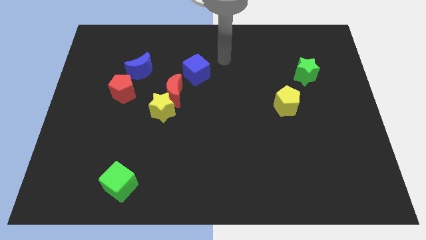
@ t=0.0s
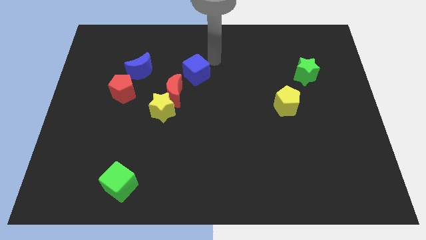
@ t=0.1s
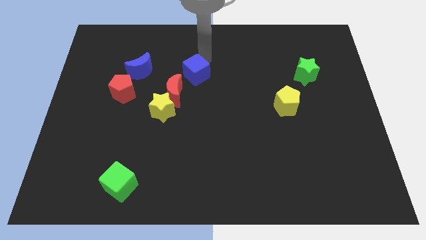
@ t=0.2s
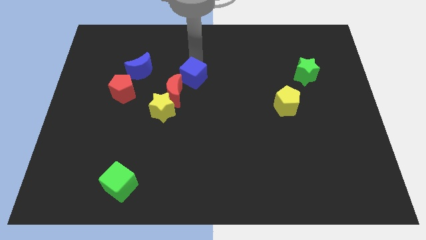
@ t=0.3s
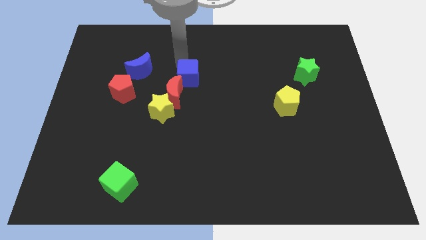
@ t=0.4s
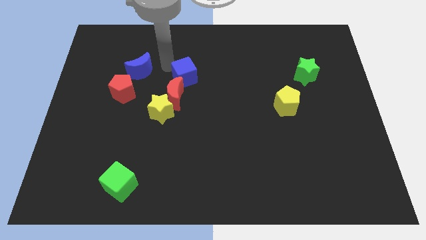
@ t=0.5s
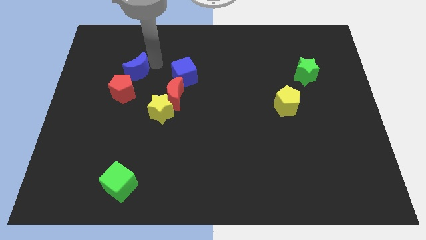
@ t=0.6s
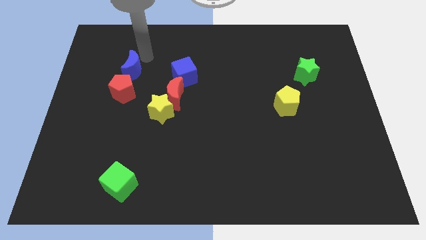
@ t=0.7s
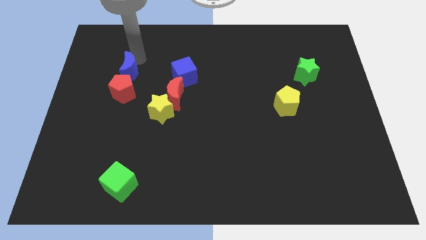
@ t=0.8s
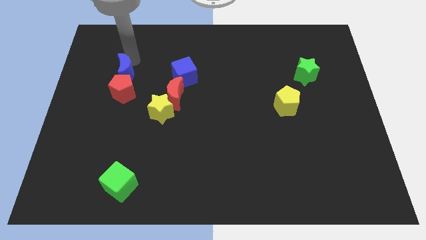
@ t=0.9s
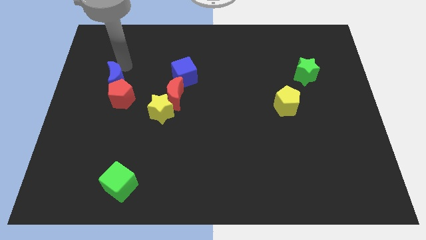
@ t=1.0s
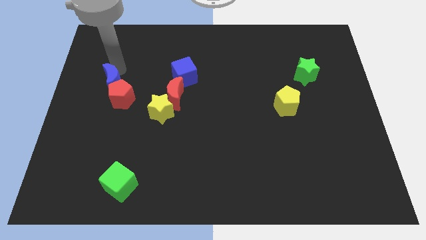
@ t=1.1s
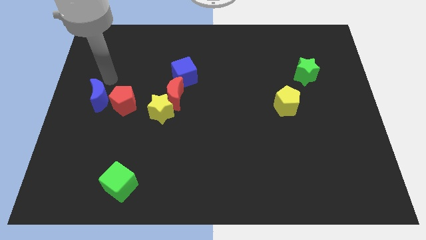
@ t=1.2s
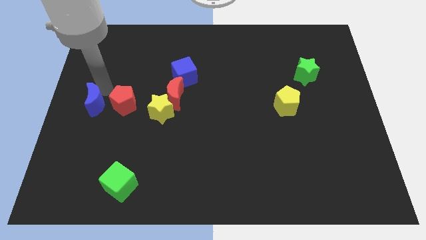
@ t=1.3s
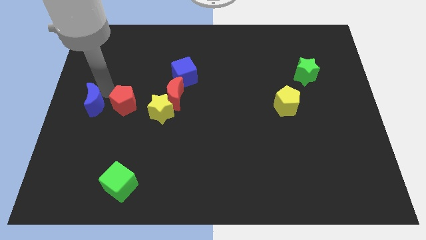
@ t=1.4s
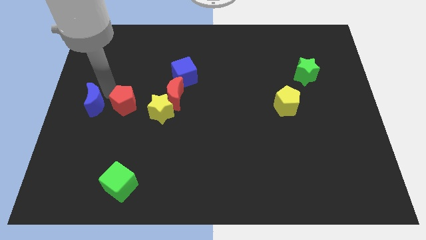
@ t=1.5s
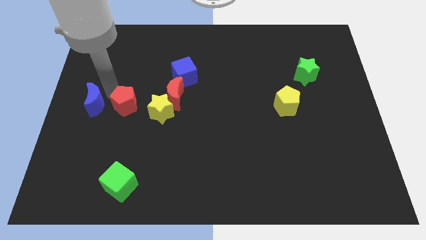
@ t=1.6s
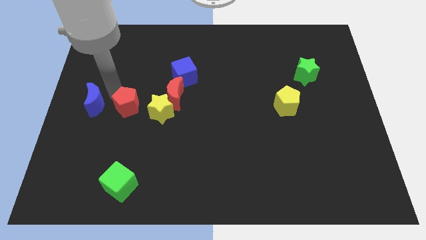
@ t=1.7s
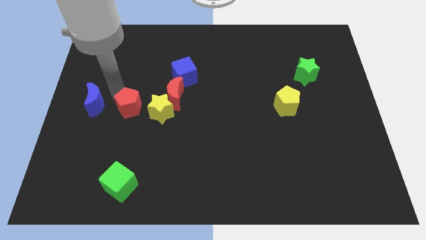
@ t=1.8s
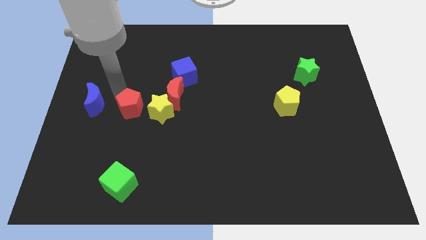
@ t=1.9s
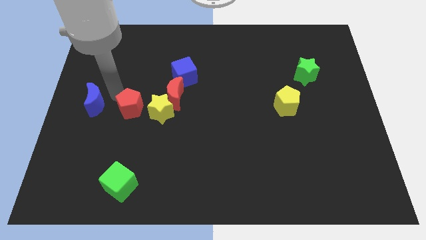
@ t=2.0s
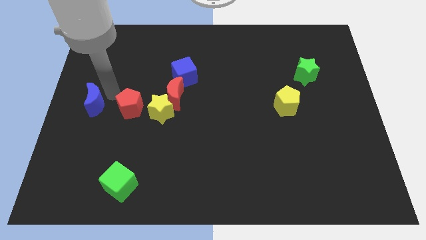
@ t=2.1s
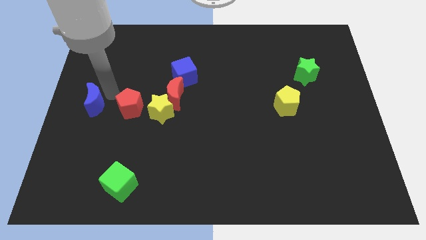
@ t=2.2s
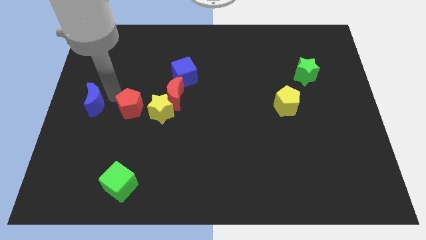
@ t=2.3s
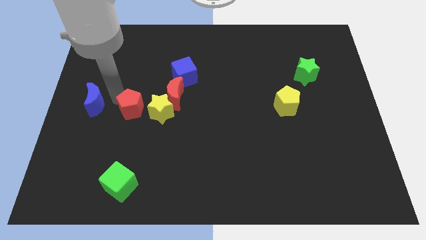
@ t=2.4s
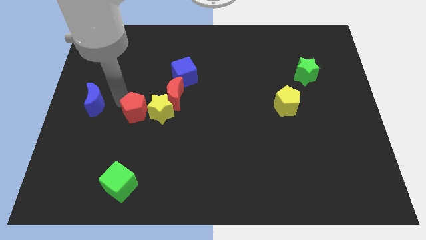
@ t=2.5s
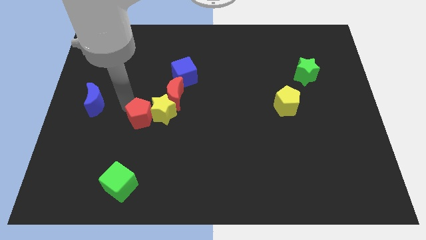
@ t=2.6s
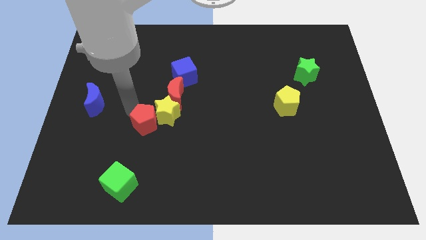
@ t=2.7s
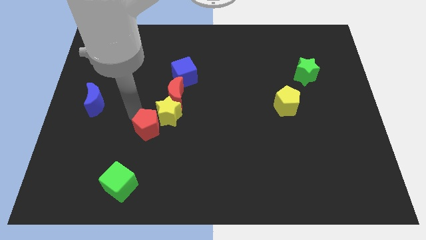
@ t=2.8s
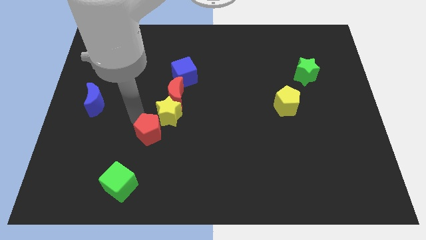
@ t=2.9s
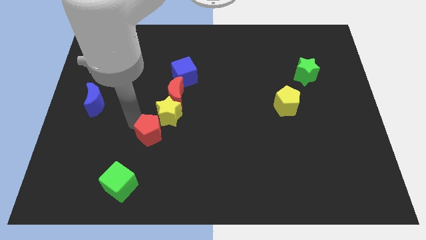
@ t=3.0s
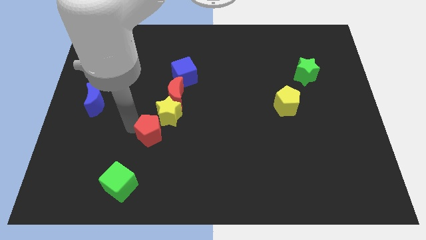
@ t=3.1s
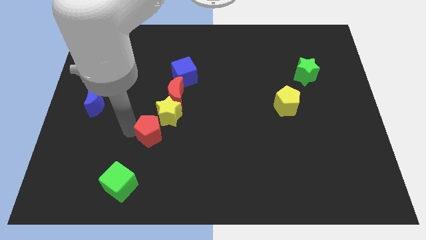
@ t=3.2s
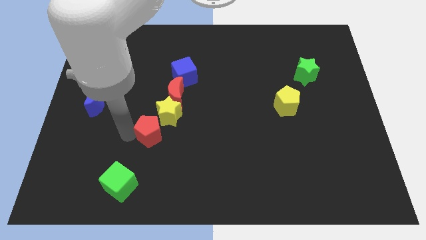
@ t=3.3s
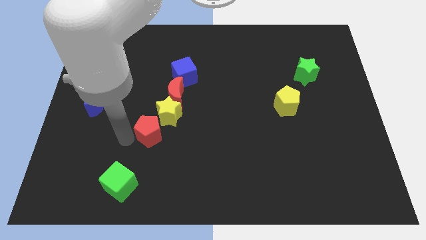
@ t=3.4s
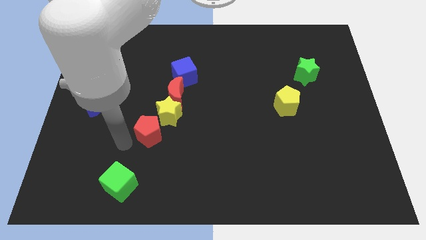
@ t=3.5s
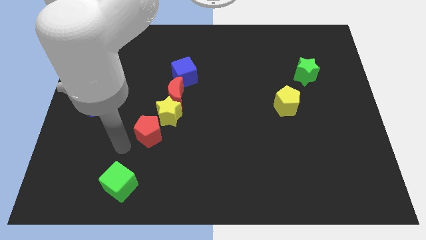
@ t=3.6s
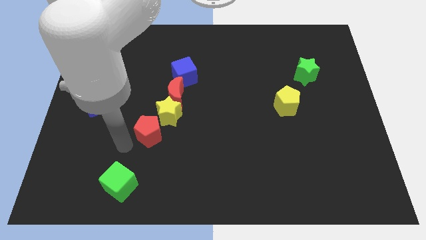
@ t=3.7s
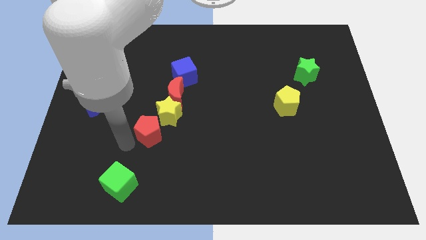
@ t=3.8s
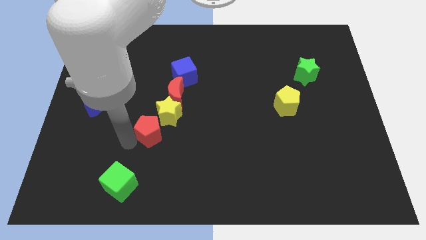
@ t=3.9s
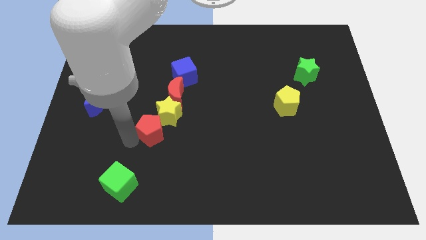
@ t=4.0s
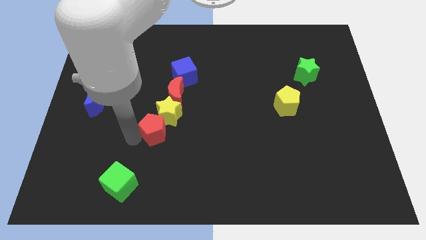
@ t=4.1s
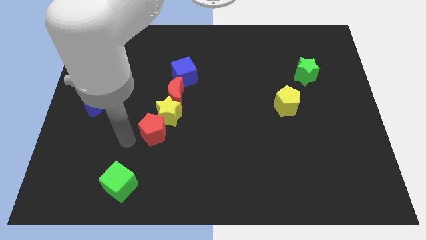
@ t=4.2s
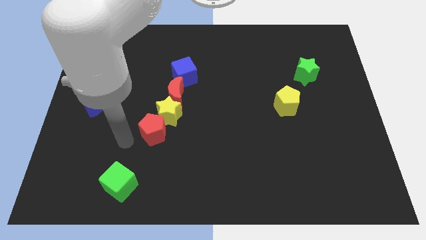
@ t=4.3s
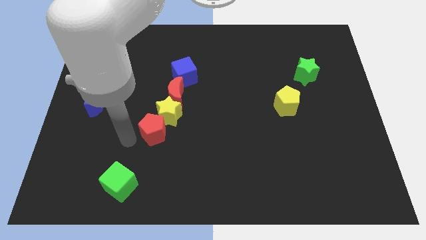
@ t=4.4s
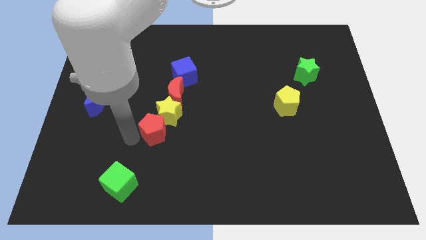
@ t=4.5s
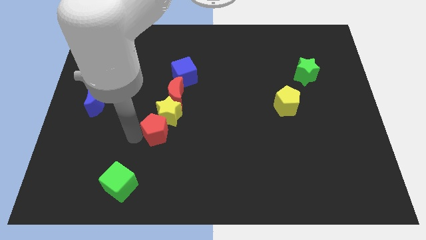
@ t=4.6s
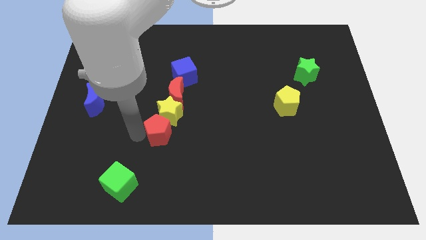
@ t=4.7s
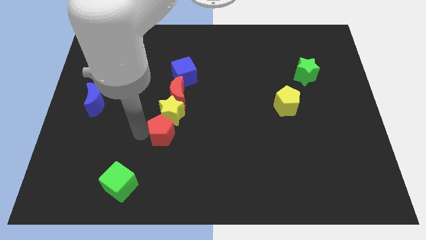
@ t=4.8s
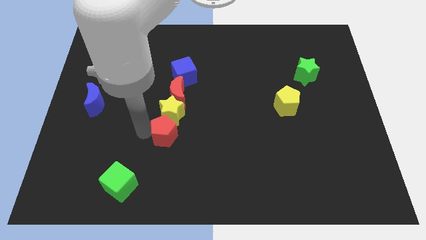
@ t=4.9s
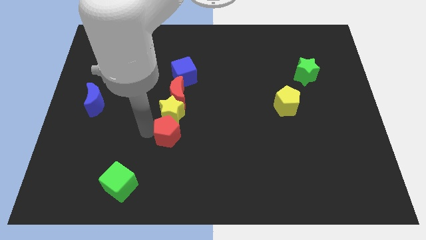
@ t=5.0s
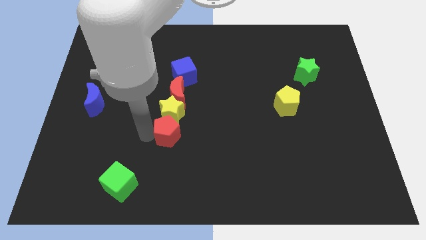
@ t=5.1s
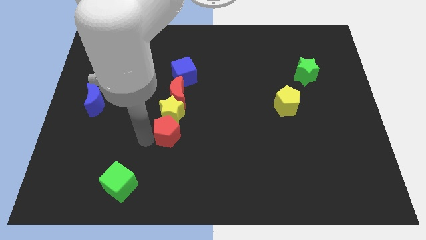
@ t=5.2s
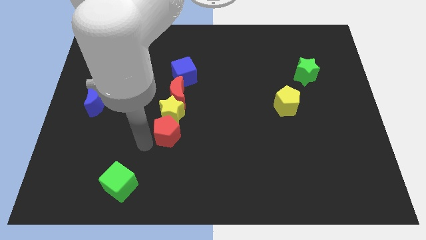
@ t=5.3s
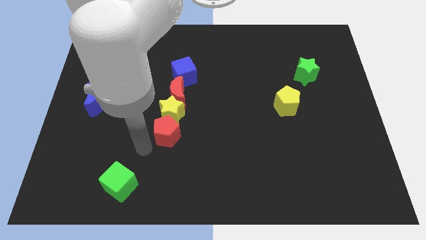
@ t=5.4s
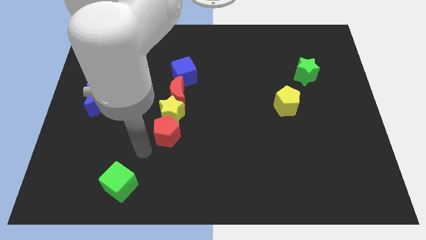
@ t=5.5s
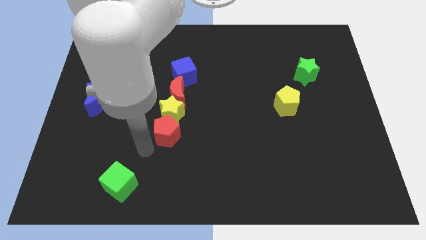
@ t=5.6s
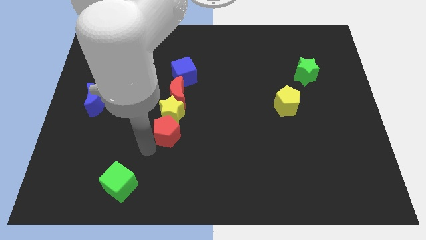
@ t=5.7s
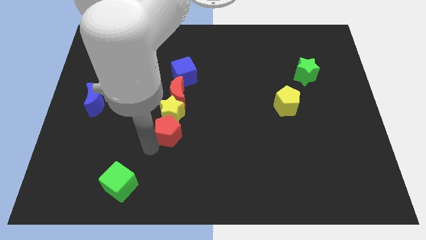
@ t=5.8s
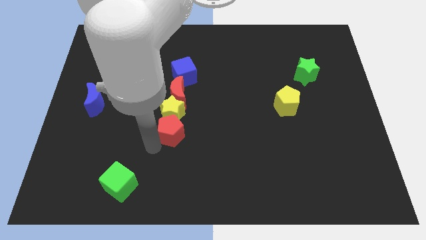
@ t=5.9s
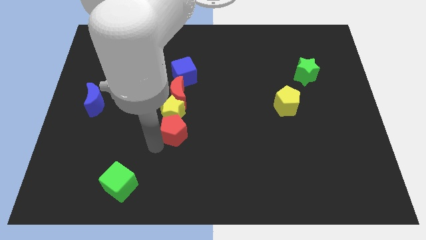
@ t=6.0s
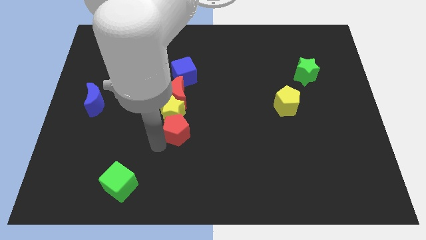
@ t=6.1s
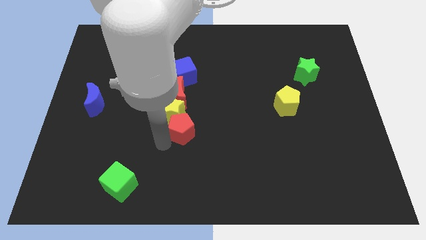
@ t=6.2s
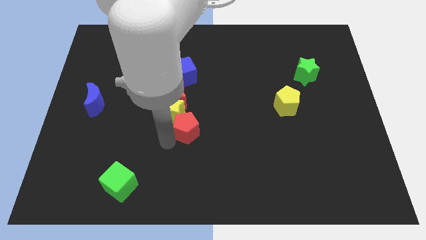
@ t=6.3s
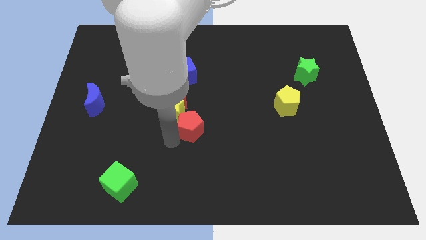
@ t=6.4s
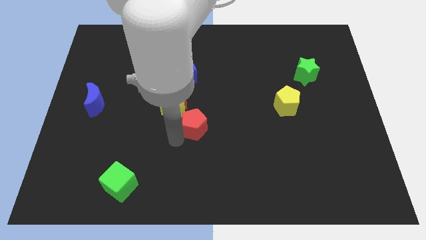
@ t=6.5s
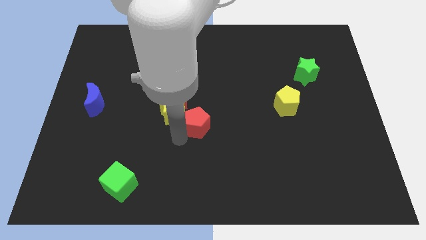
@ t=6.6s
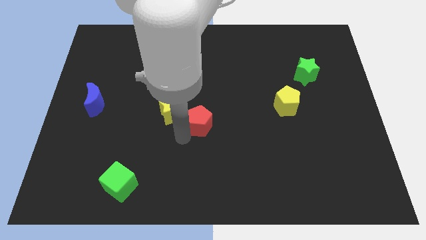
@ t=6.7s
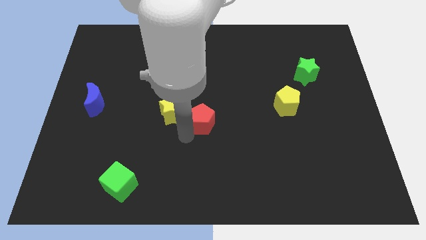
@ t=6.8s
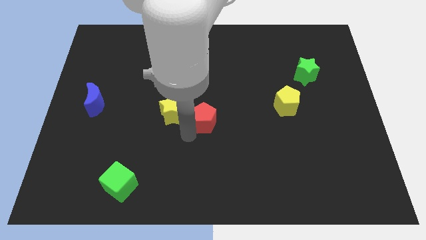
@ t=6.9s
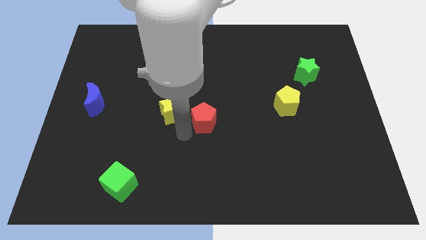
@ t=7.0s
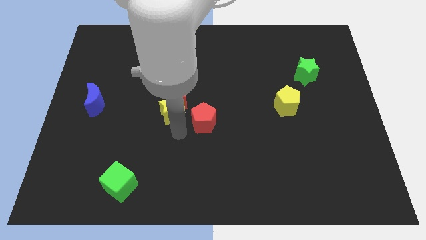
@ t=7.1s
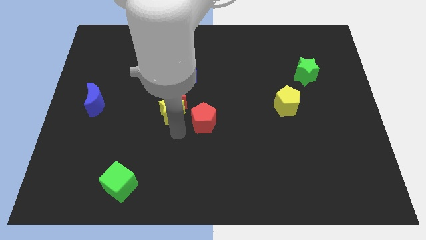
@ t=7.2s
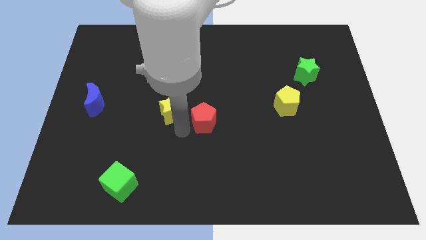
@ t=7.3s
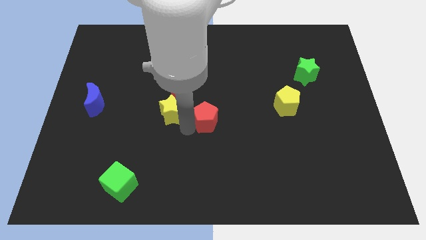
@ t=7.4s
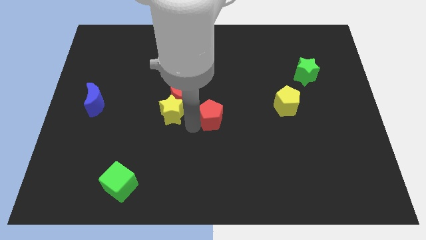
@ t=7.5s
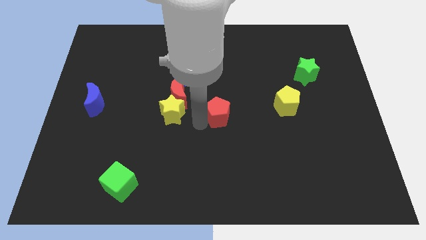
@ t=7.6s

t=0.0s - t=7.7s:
slide the red pentagon right
